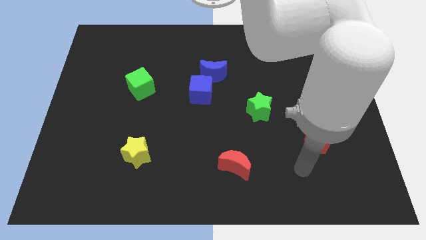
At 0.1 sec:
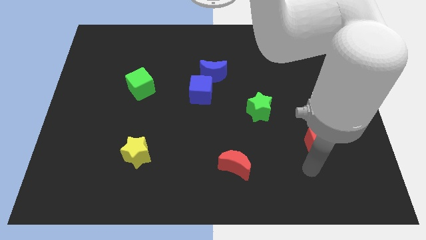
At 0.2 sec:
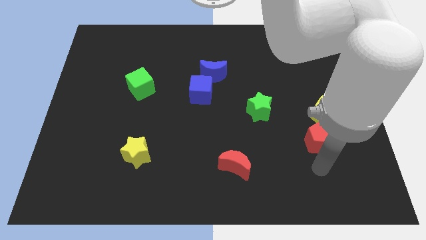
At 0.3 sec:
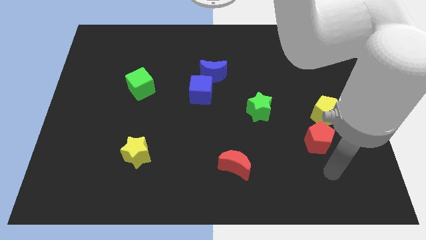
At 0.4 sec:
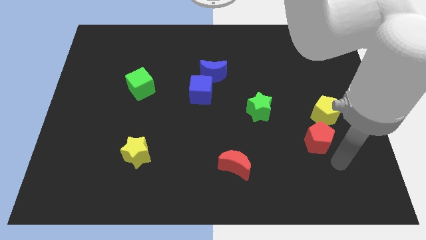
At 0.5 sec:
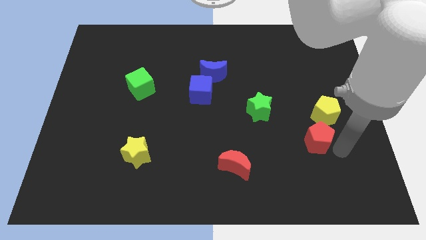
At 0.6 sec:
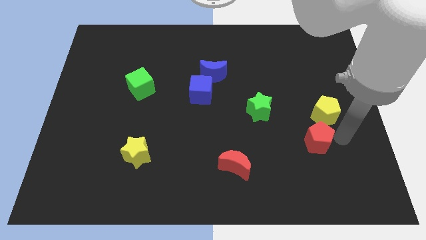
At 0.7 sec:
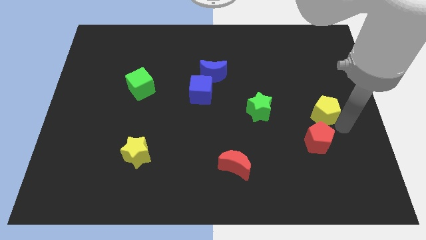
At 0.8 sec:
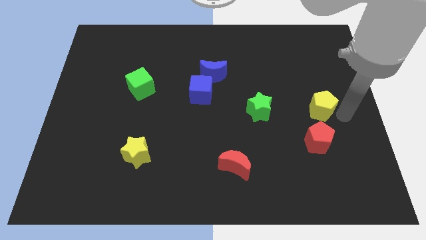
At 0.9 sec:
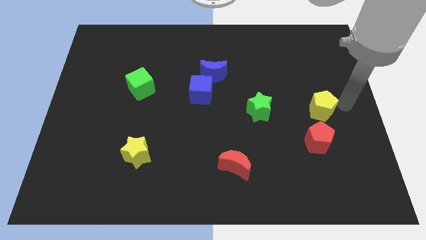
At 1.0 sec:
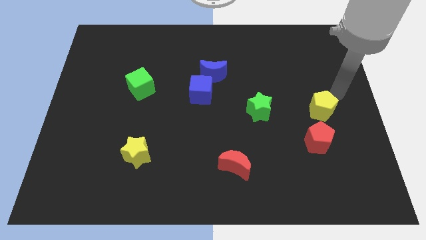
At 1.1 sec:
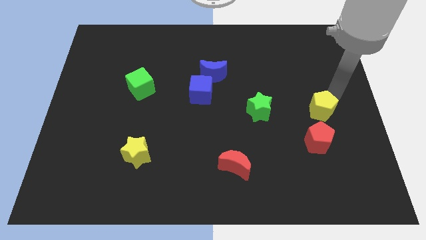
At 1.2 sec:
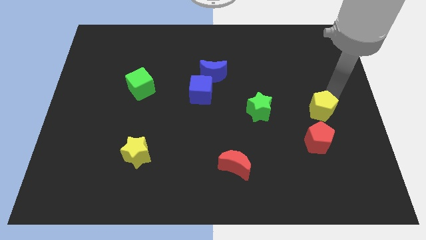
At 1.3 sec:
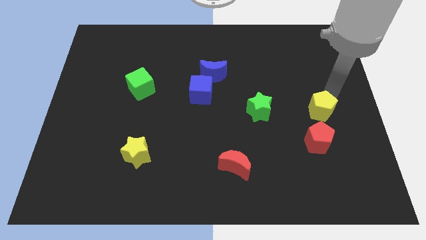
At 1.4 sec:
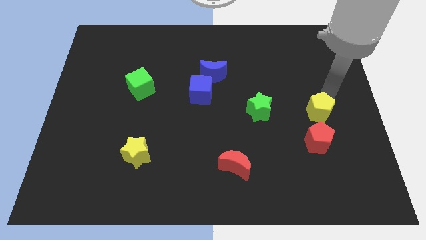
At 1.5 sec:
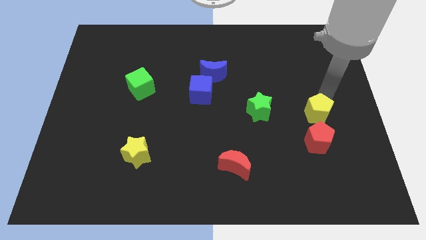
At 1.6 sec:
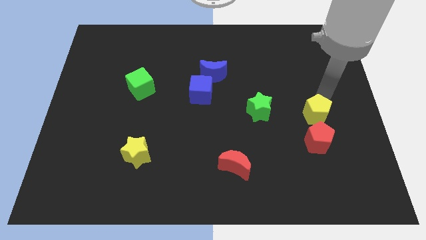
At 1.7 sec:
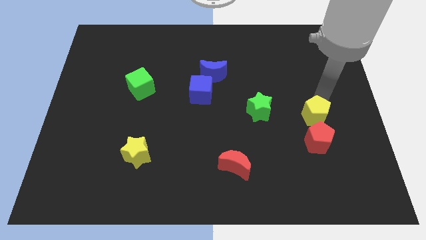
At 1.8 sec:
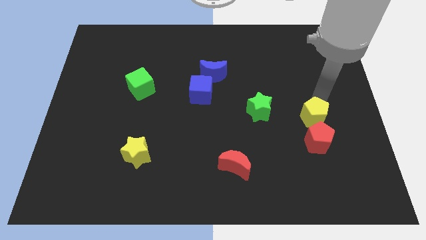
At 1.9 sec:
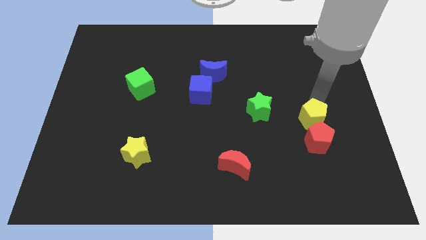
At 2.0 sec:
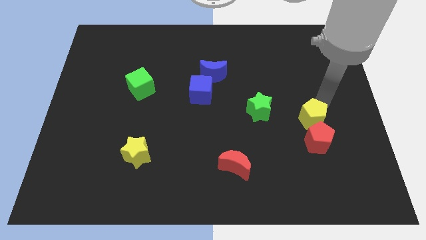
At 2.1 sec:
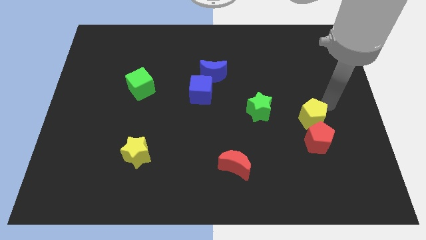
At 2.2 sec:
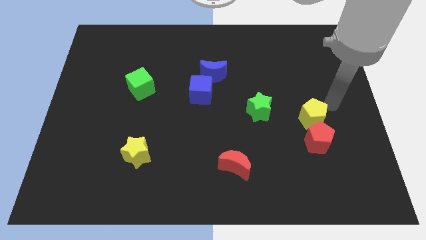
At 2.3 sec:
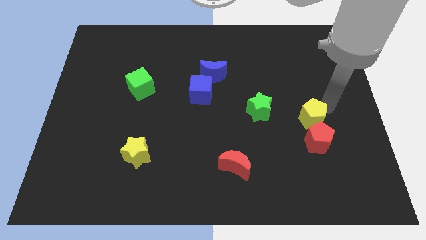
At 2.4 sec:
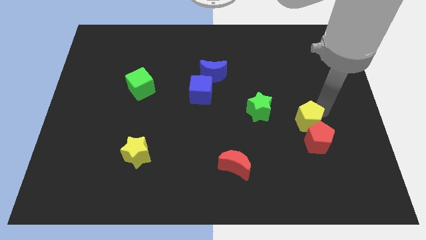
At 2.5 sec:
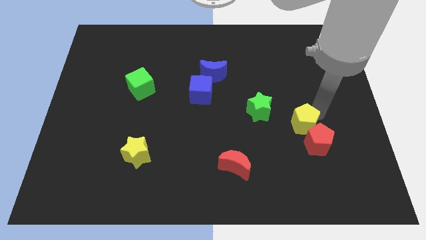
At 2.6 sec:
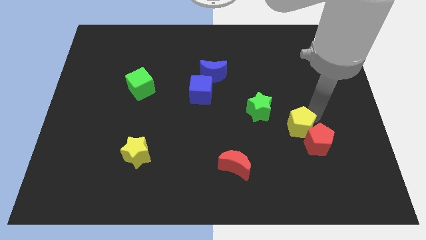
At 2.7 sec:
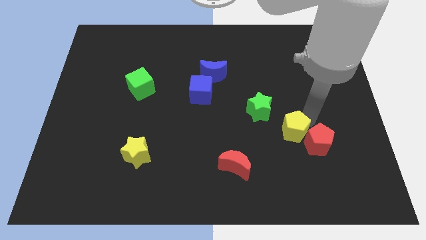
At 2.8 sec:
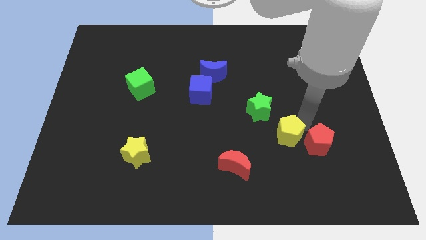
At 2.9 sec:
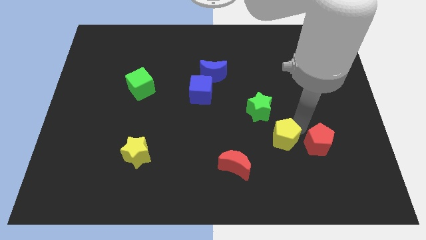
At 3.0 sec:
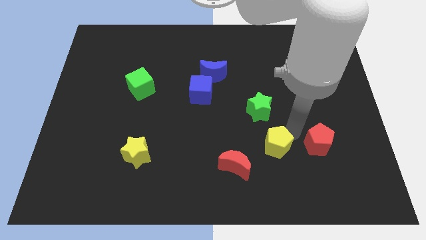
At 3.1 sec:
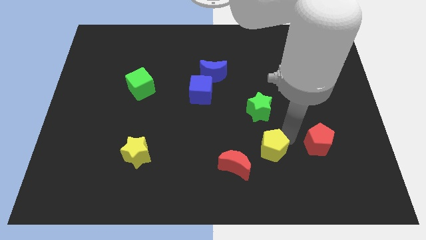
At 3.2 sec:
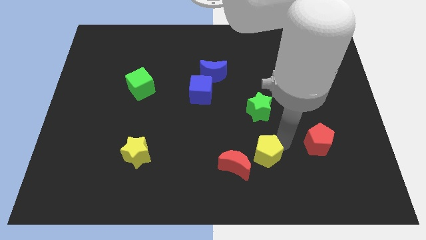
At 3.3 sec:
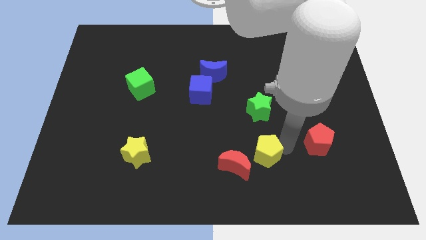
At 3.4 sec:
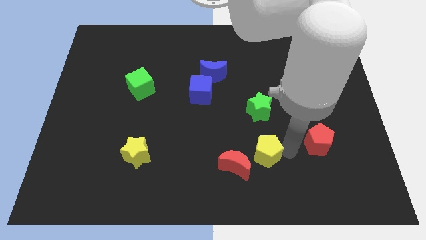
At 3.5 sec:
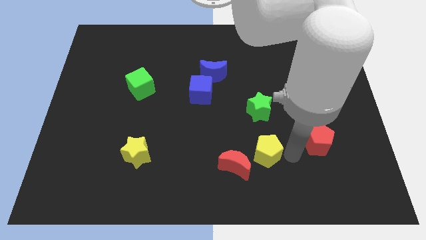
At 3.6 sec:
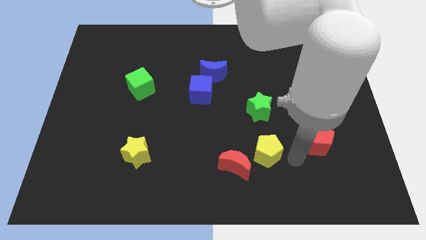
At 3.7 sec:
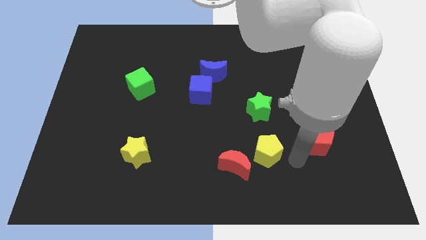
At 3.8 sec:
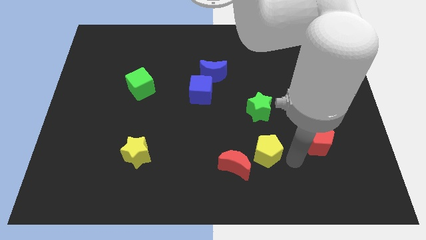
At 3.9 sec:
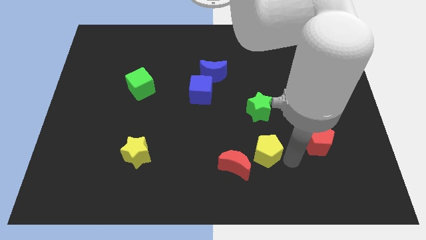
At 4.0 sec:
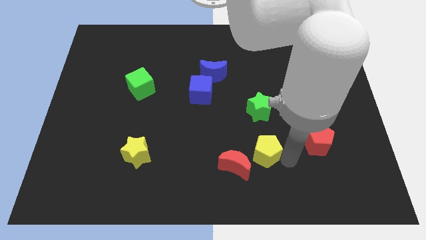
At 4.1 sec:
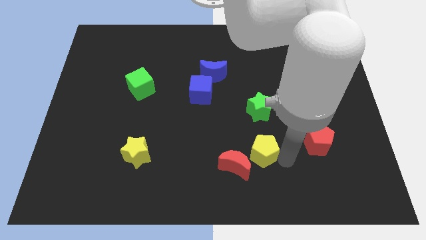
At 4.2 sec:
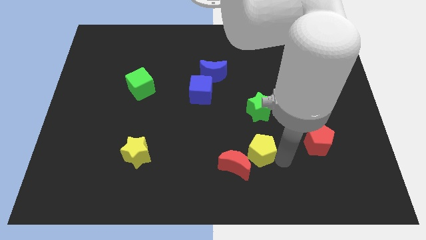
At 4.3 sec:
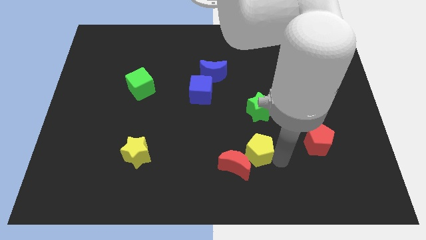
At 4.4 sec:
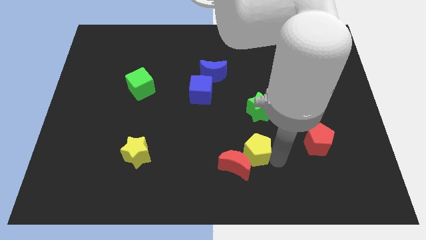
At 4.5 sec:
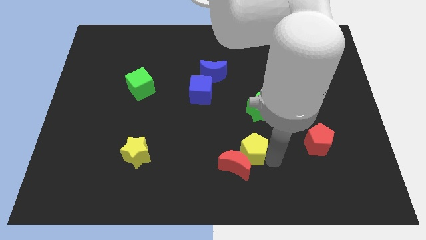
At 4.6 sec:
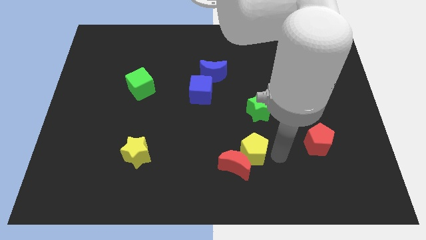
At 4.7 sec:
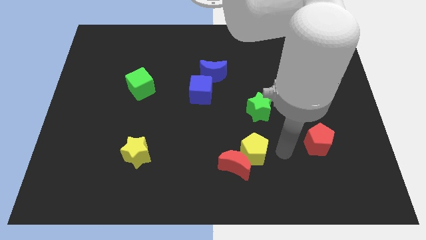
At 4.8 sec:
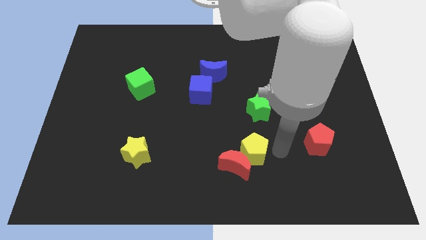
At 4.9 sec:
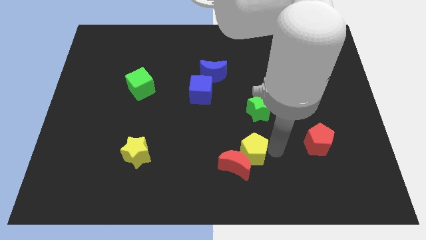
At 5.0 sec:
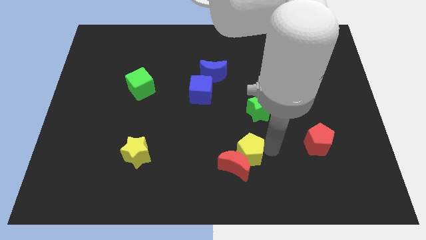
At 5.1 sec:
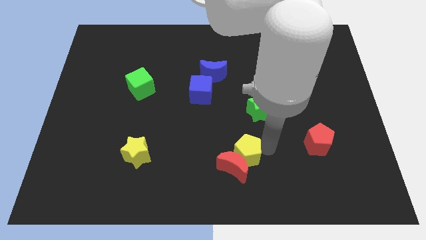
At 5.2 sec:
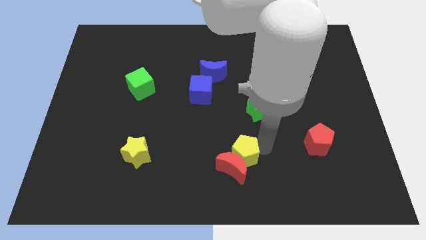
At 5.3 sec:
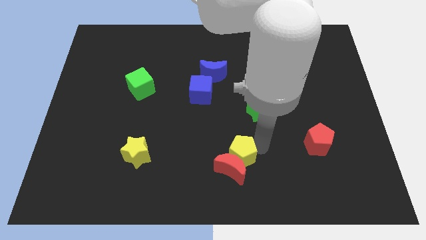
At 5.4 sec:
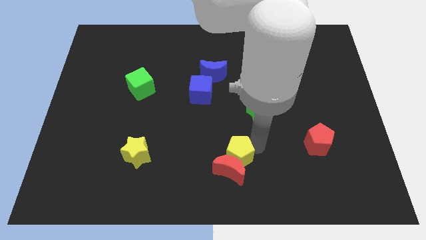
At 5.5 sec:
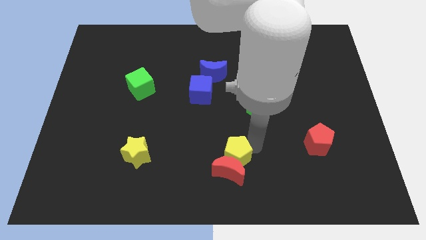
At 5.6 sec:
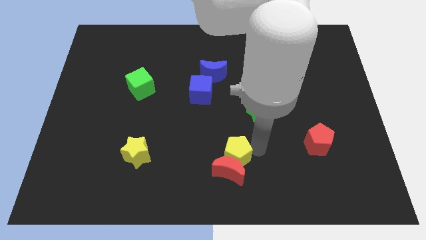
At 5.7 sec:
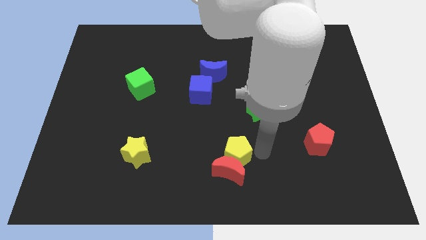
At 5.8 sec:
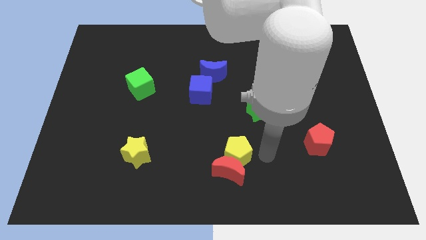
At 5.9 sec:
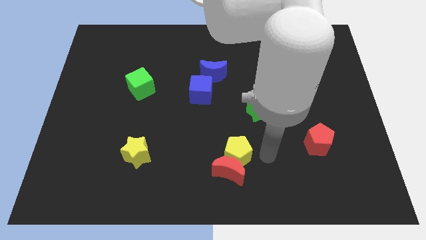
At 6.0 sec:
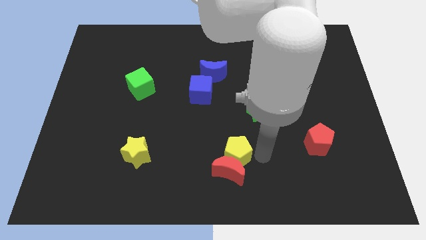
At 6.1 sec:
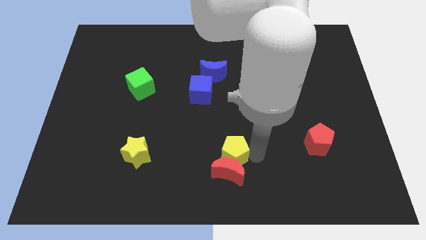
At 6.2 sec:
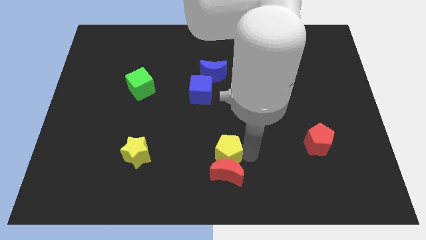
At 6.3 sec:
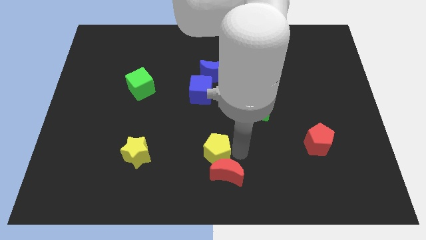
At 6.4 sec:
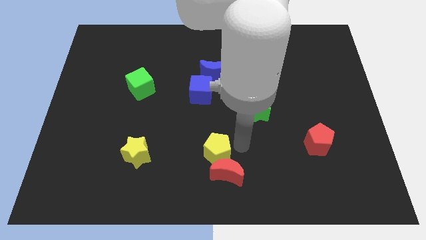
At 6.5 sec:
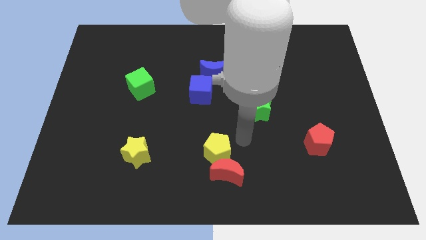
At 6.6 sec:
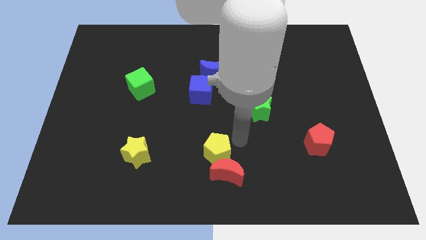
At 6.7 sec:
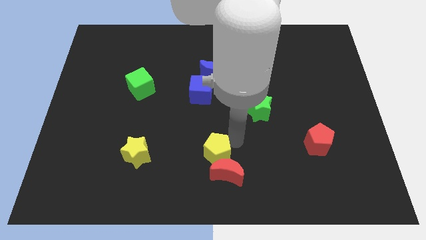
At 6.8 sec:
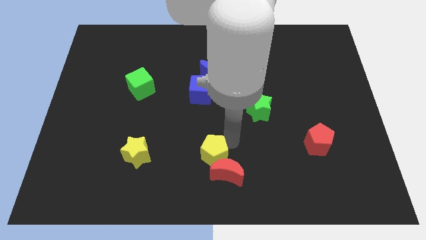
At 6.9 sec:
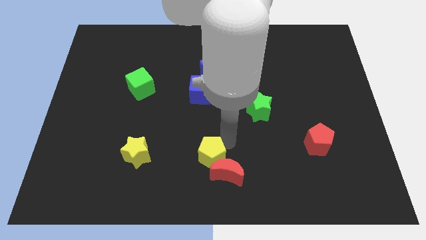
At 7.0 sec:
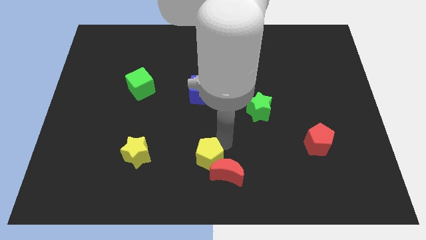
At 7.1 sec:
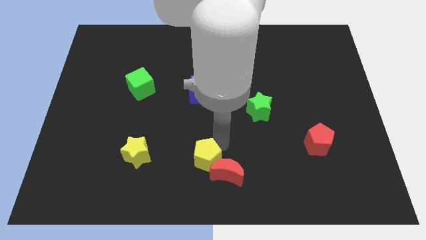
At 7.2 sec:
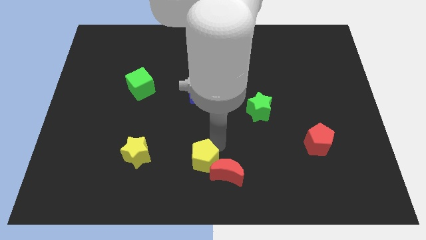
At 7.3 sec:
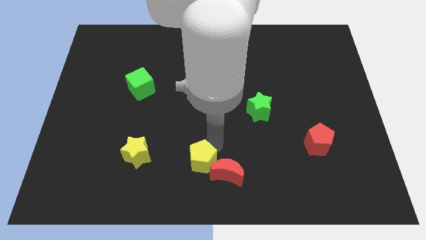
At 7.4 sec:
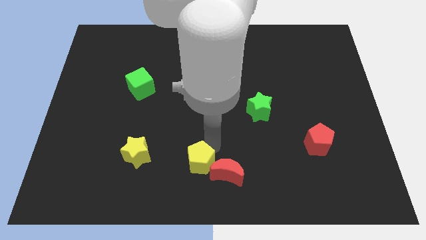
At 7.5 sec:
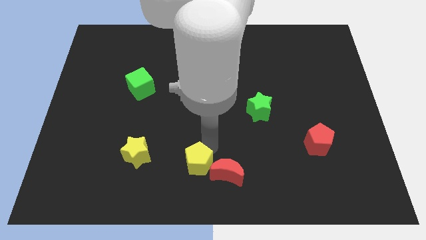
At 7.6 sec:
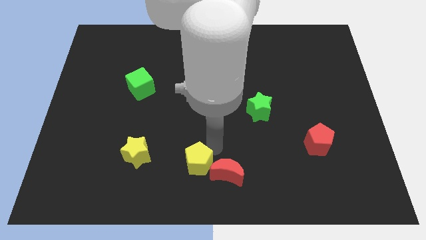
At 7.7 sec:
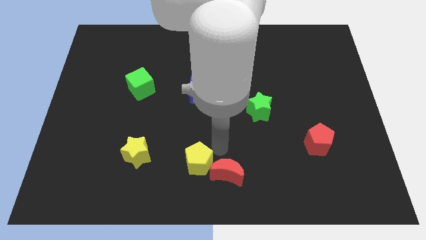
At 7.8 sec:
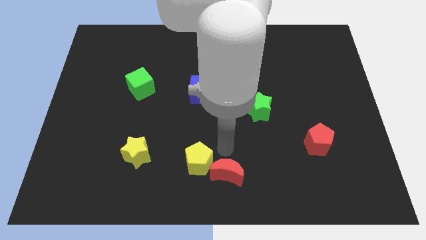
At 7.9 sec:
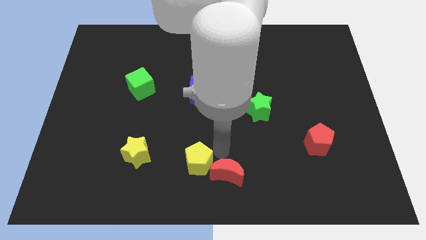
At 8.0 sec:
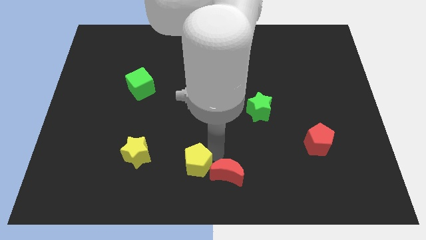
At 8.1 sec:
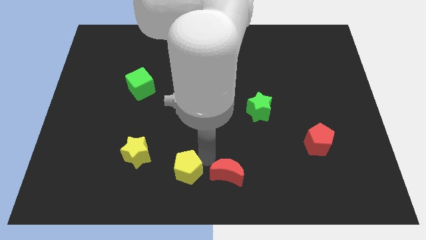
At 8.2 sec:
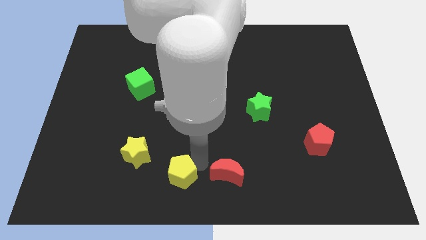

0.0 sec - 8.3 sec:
push the yellow pentagon to the bottom right side of the yellow star
